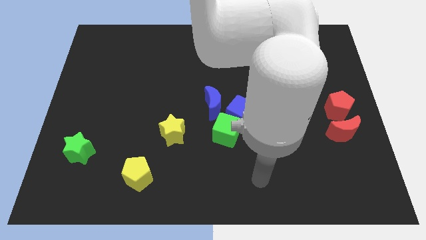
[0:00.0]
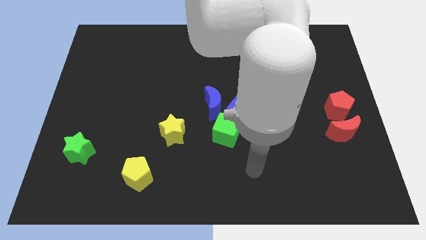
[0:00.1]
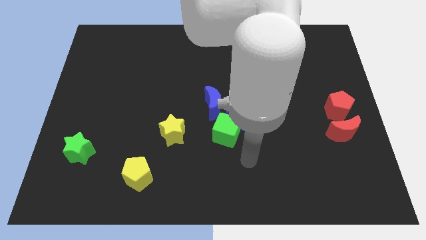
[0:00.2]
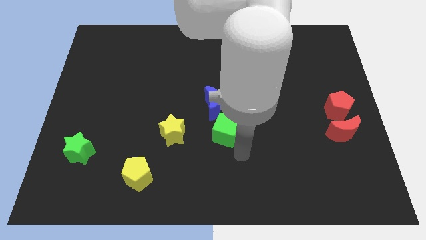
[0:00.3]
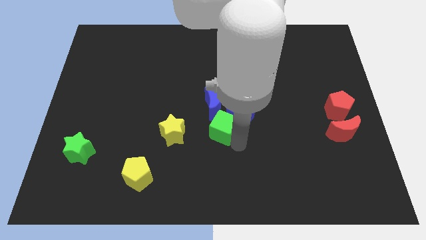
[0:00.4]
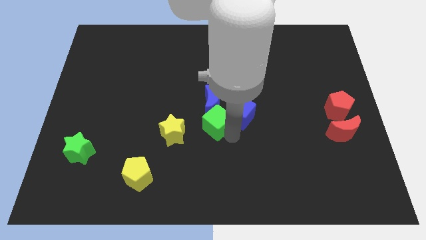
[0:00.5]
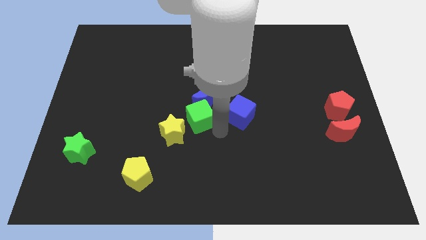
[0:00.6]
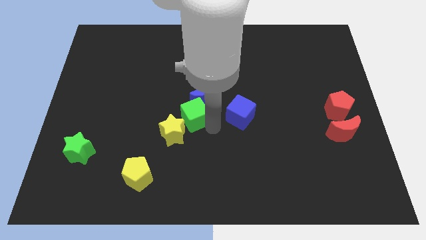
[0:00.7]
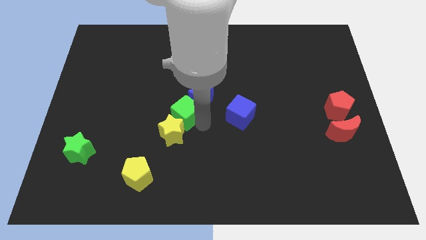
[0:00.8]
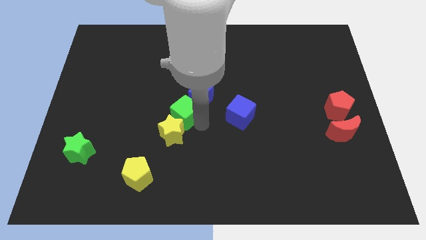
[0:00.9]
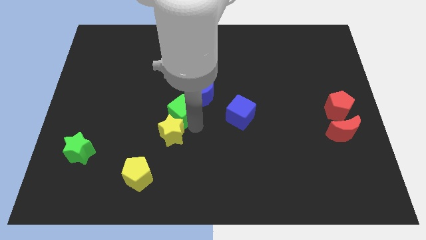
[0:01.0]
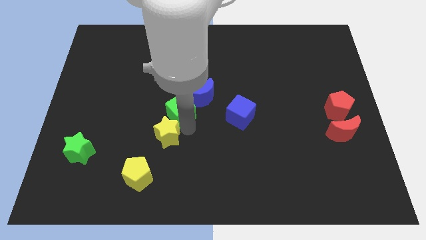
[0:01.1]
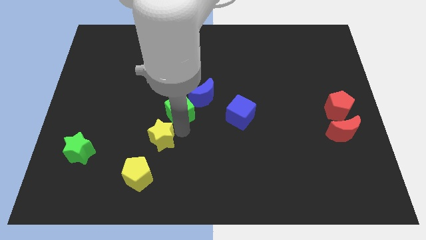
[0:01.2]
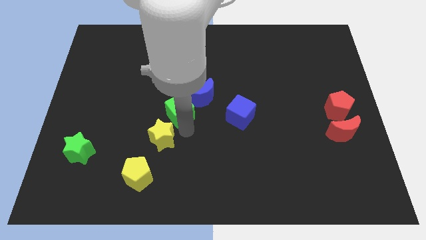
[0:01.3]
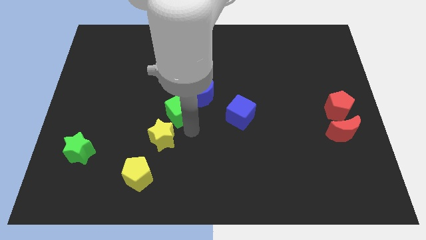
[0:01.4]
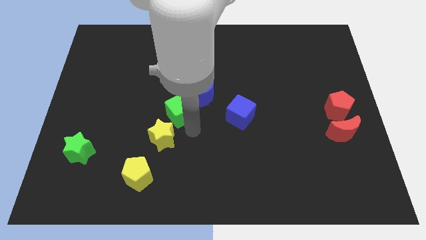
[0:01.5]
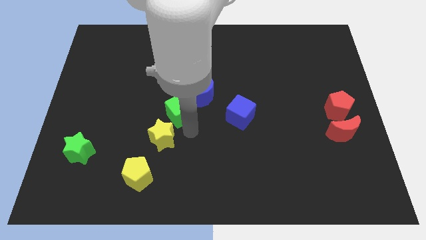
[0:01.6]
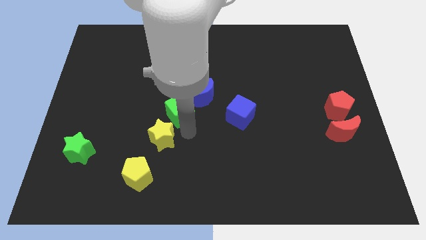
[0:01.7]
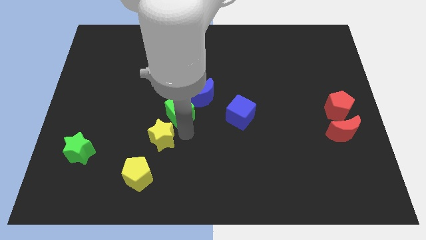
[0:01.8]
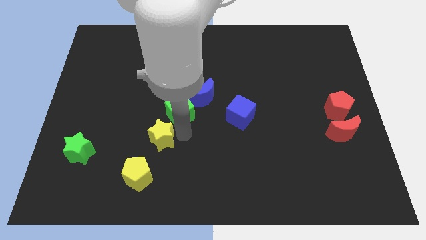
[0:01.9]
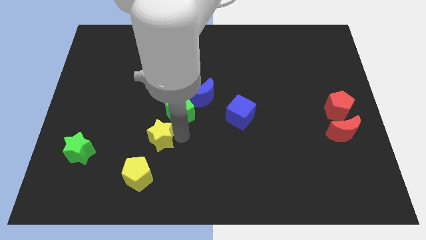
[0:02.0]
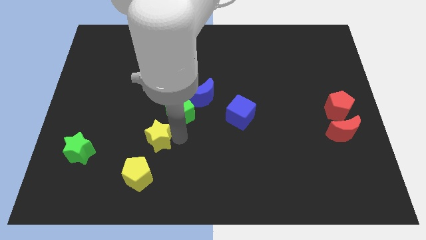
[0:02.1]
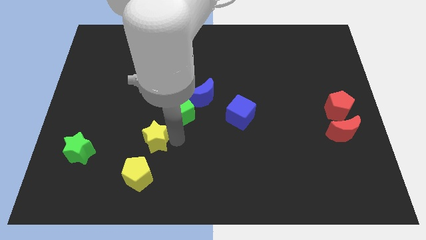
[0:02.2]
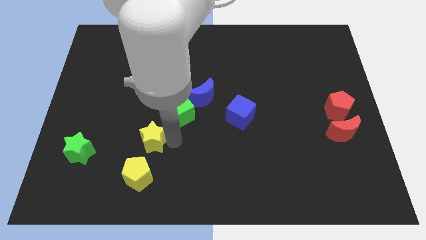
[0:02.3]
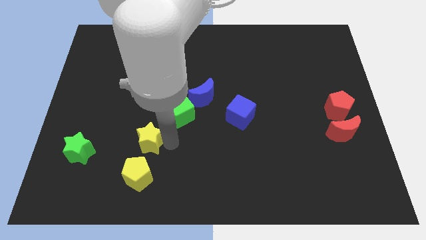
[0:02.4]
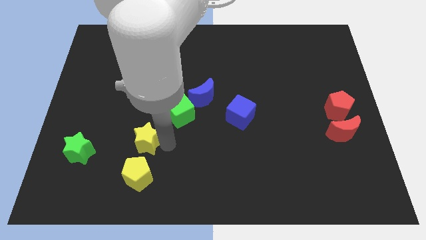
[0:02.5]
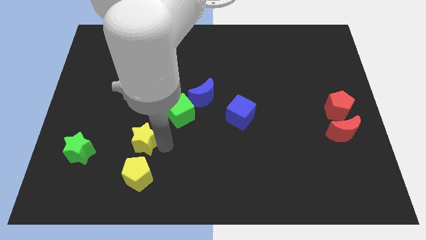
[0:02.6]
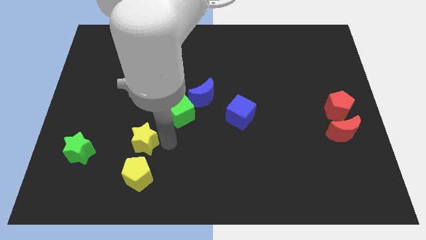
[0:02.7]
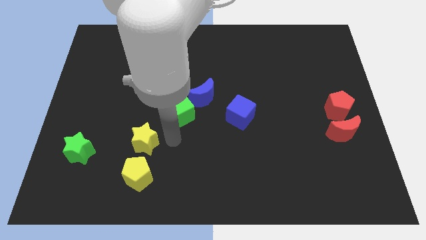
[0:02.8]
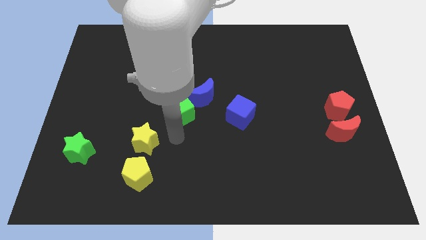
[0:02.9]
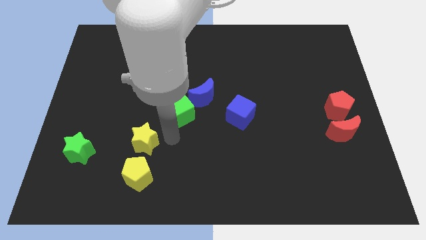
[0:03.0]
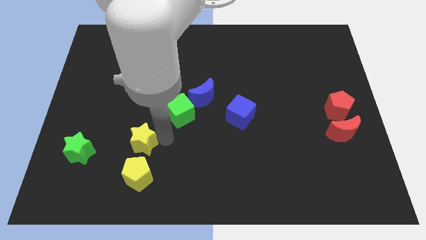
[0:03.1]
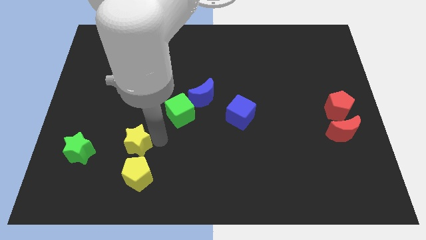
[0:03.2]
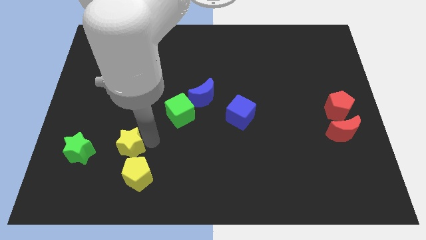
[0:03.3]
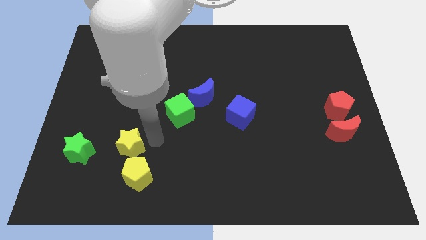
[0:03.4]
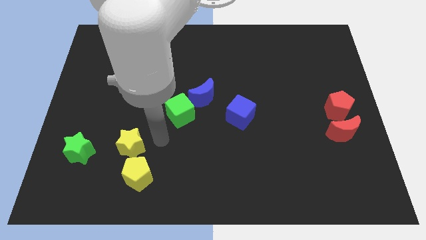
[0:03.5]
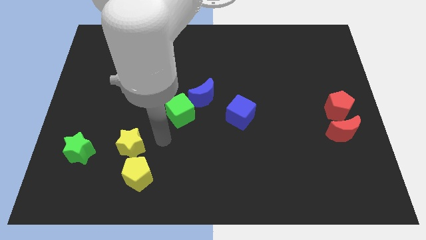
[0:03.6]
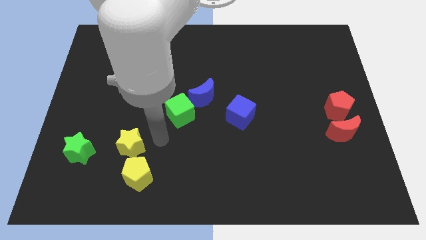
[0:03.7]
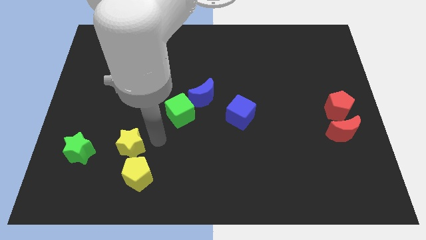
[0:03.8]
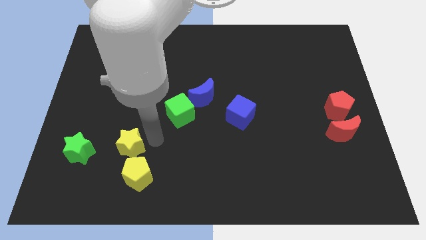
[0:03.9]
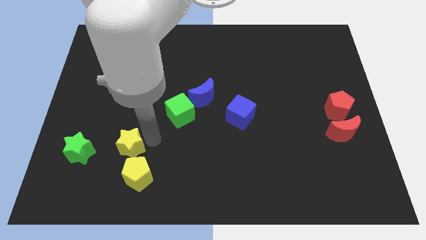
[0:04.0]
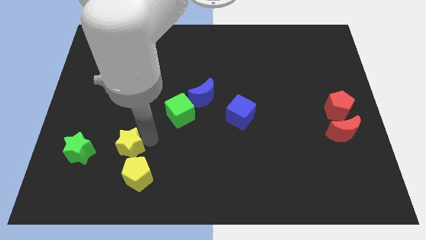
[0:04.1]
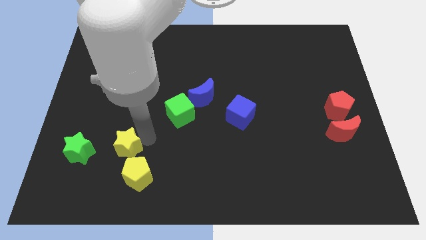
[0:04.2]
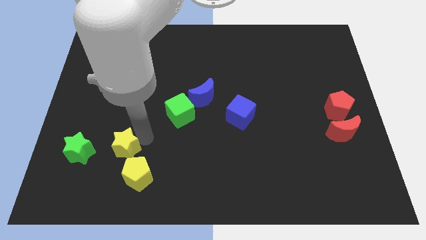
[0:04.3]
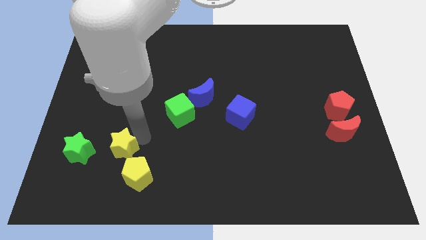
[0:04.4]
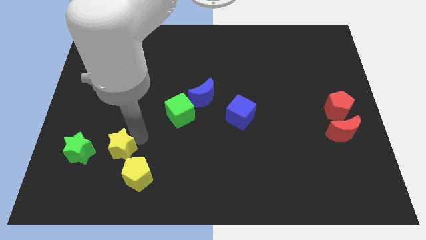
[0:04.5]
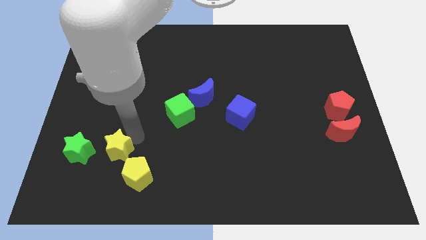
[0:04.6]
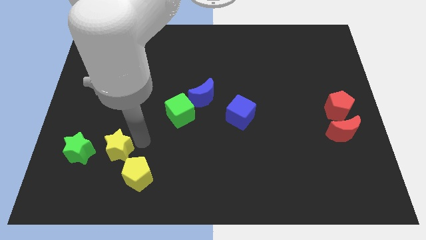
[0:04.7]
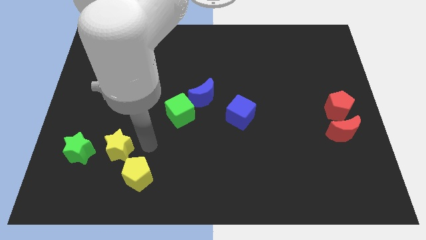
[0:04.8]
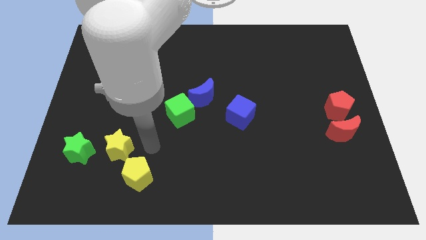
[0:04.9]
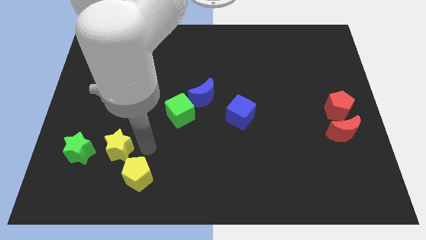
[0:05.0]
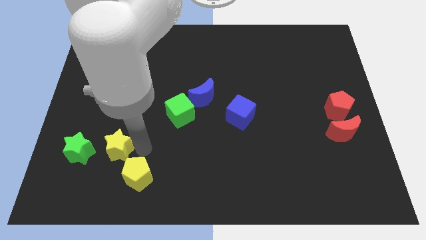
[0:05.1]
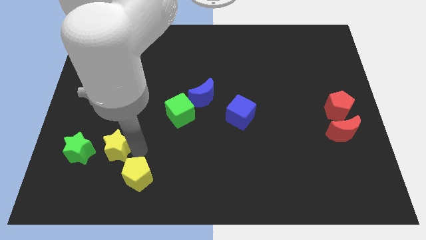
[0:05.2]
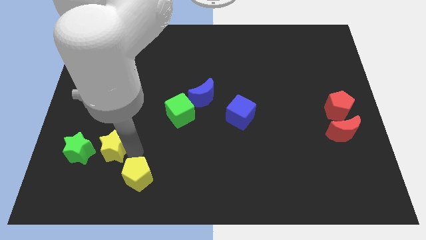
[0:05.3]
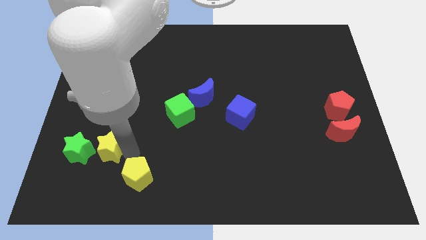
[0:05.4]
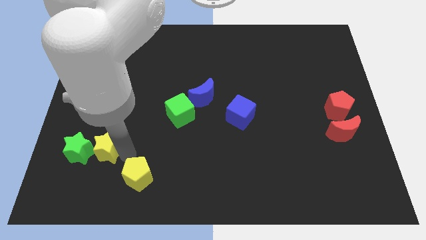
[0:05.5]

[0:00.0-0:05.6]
push the yellow star towards the green star

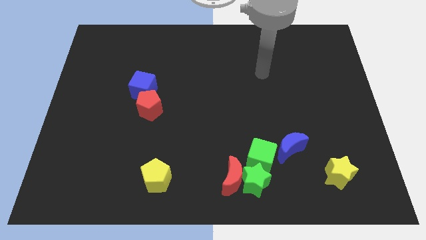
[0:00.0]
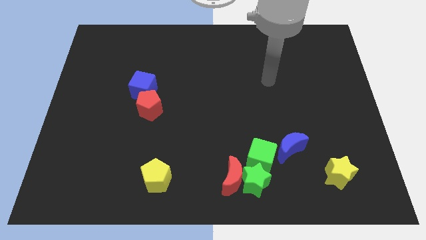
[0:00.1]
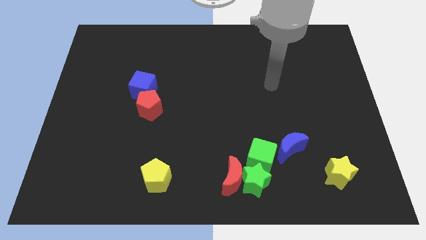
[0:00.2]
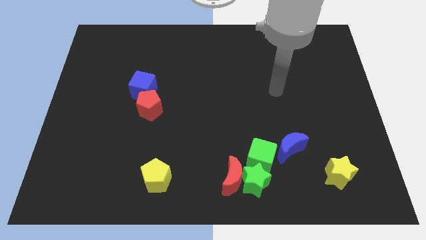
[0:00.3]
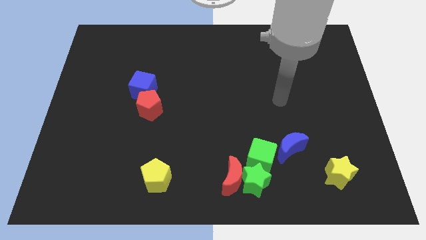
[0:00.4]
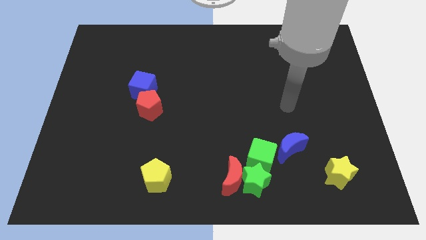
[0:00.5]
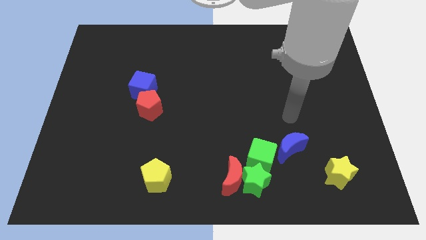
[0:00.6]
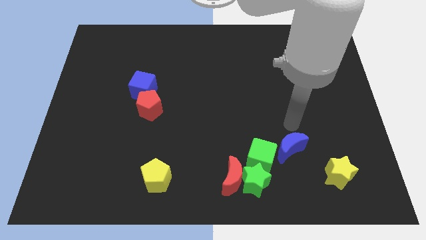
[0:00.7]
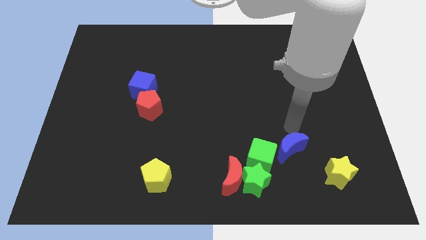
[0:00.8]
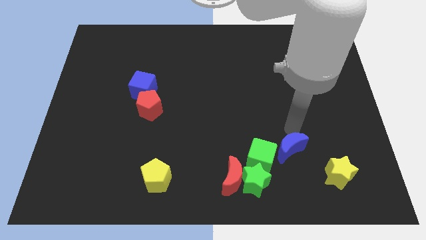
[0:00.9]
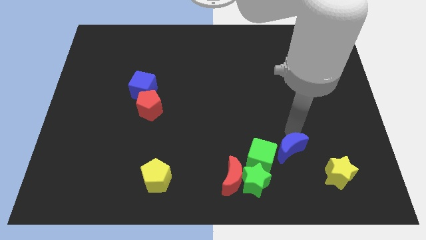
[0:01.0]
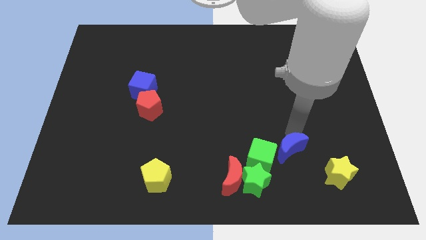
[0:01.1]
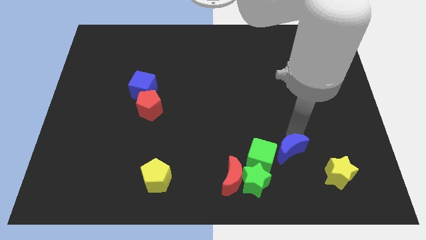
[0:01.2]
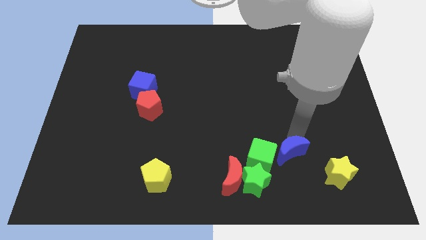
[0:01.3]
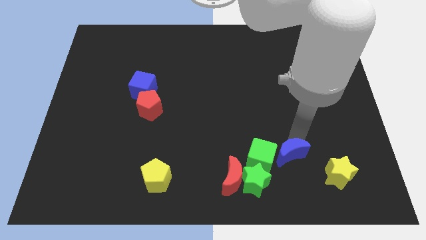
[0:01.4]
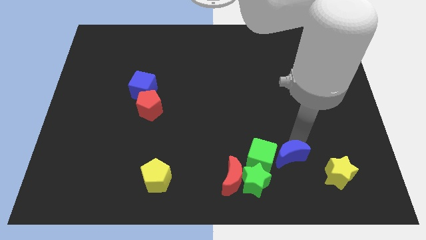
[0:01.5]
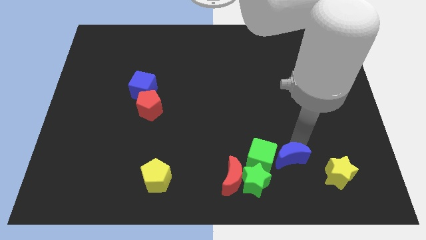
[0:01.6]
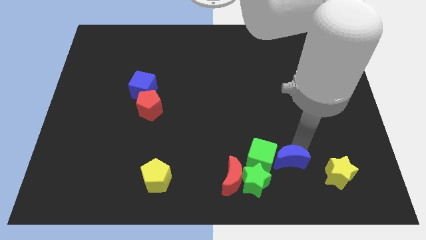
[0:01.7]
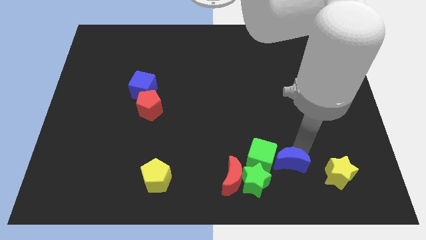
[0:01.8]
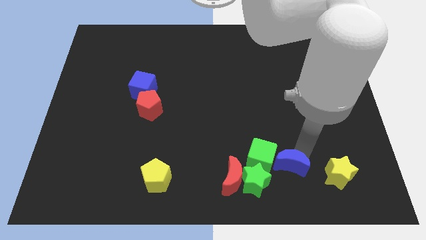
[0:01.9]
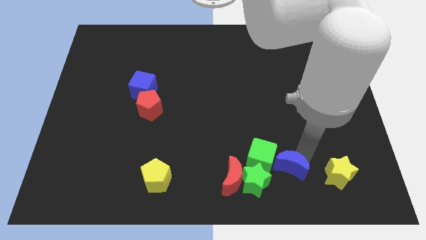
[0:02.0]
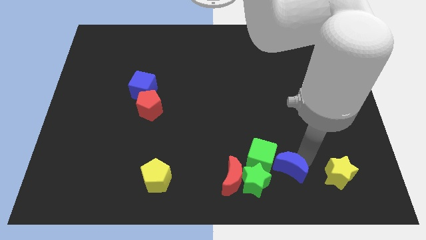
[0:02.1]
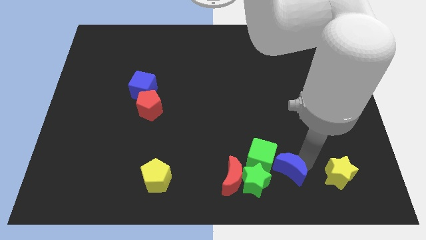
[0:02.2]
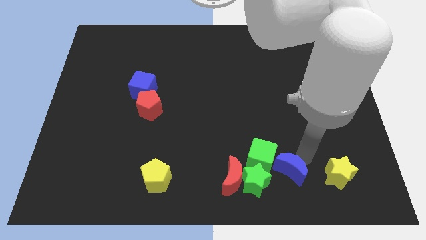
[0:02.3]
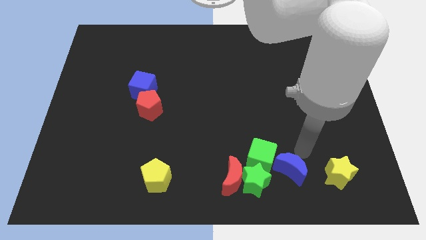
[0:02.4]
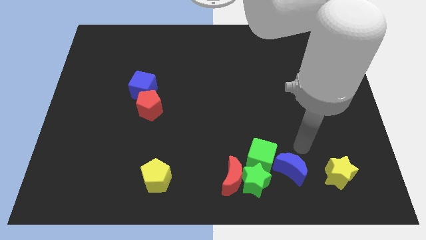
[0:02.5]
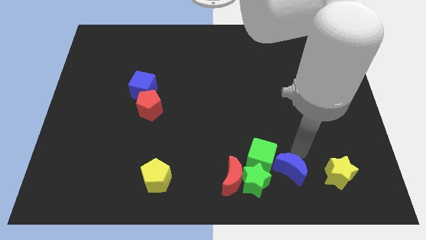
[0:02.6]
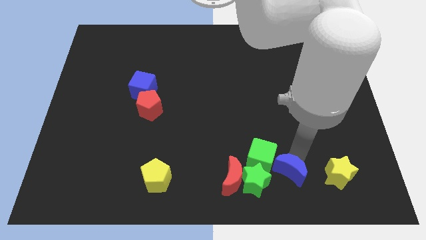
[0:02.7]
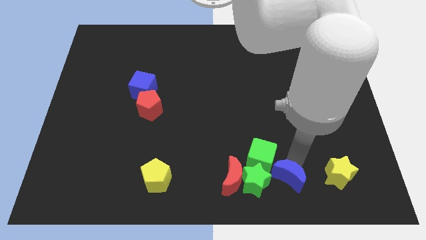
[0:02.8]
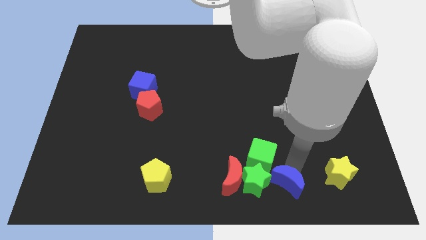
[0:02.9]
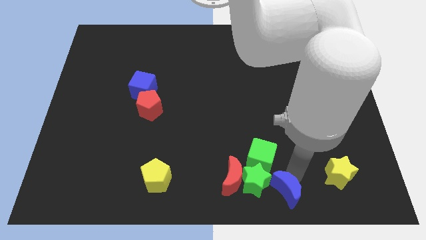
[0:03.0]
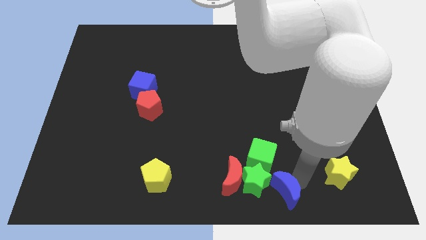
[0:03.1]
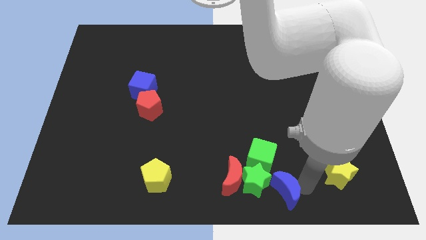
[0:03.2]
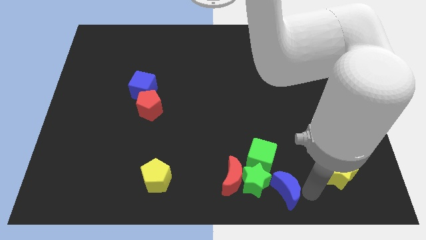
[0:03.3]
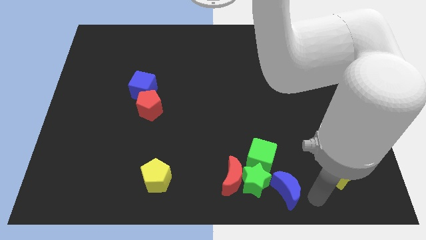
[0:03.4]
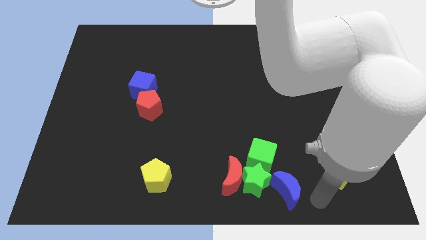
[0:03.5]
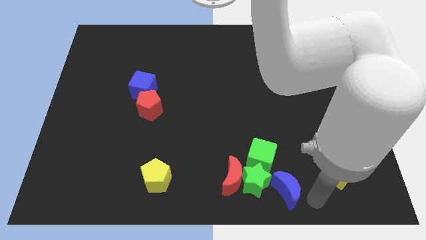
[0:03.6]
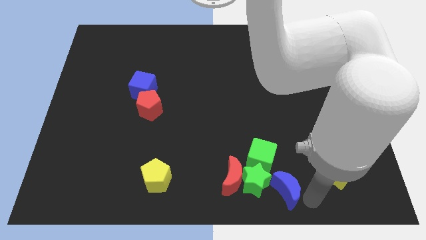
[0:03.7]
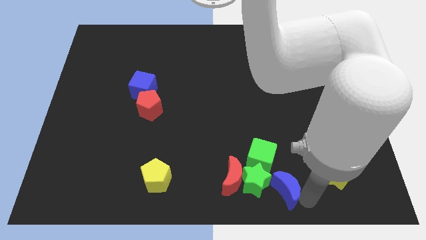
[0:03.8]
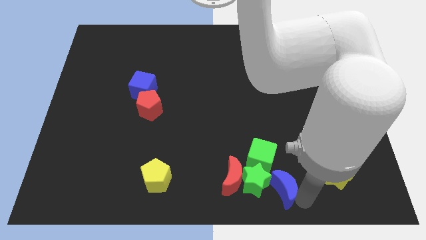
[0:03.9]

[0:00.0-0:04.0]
put the blue moon to the green star
